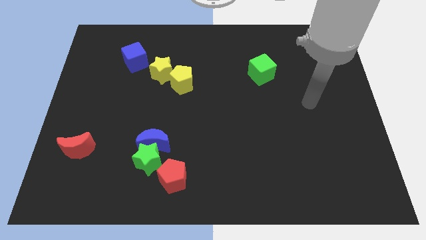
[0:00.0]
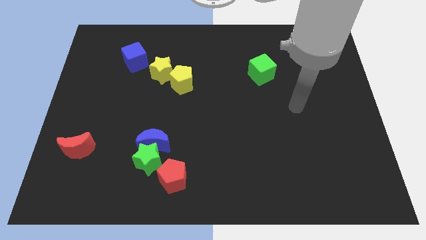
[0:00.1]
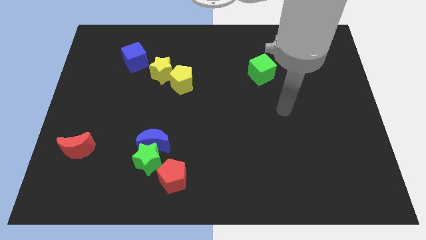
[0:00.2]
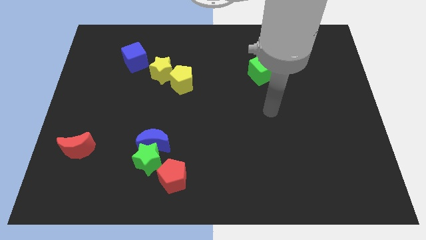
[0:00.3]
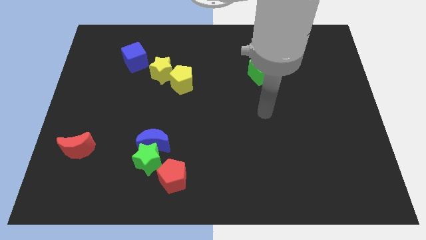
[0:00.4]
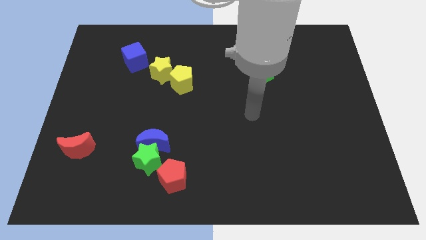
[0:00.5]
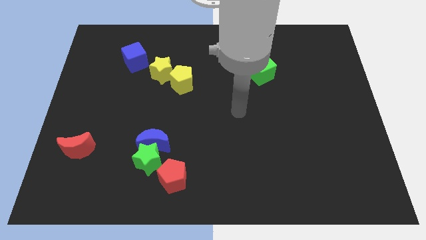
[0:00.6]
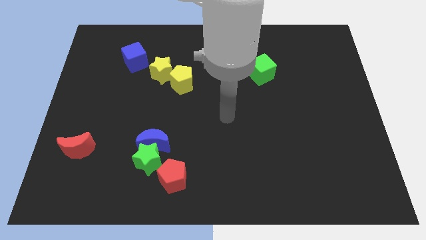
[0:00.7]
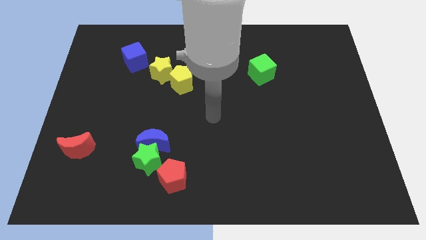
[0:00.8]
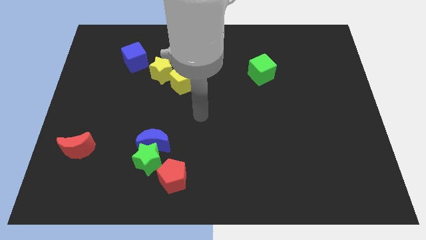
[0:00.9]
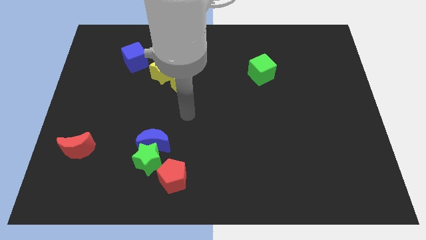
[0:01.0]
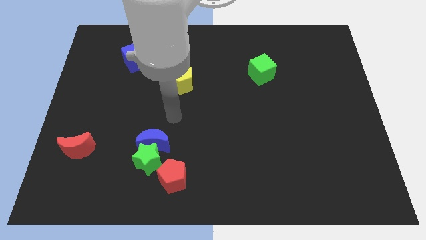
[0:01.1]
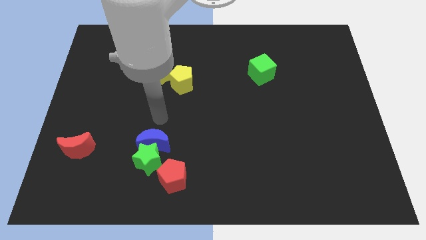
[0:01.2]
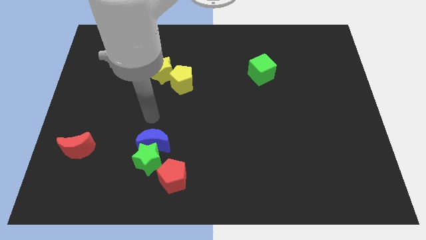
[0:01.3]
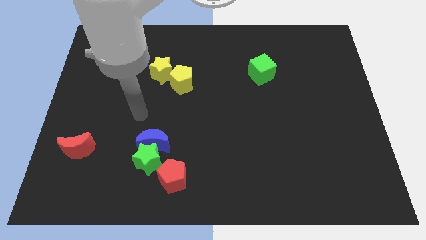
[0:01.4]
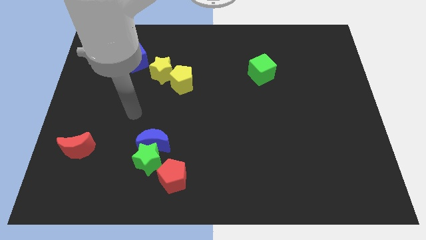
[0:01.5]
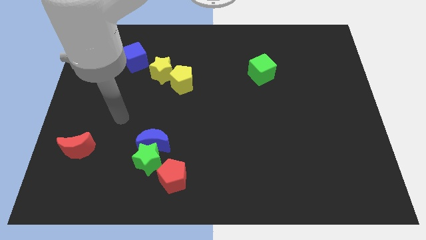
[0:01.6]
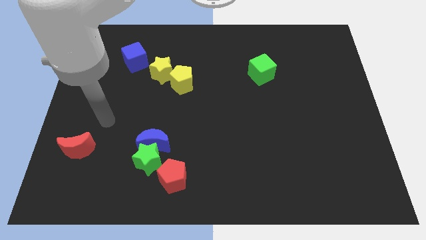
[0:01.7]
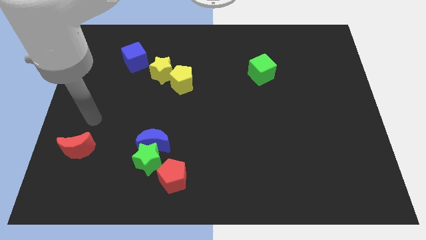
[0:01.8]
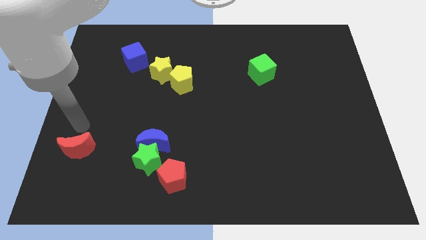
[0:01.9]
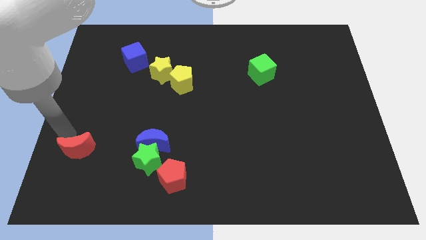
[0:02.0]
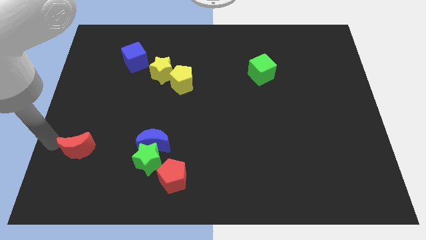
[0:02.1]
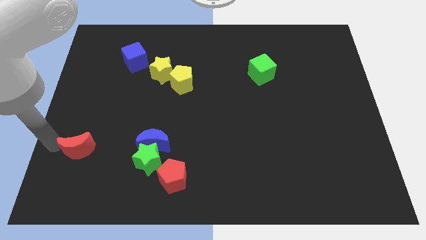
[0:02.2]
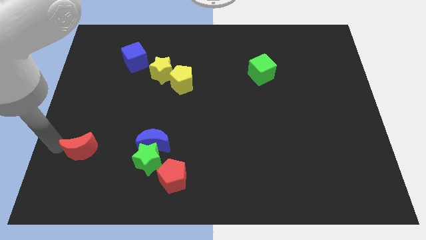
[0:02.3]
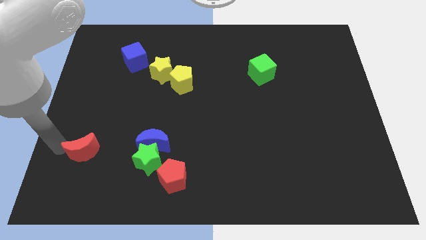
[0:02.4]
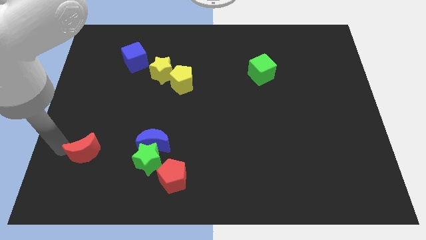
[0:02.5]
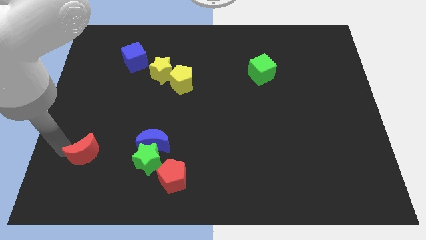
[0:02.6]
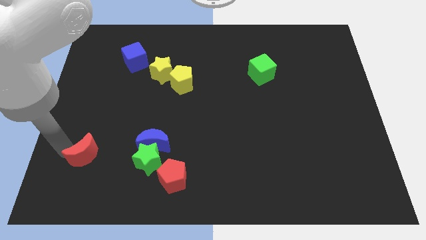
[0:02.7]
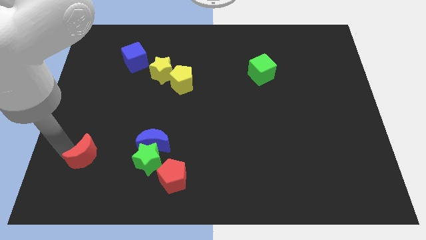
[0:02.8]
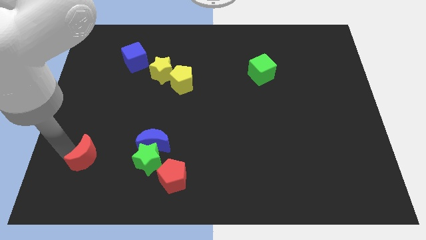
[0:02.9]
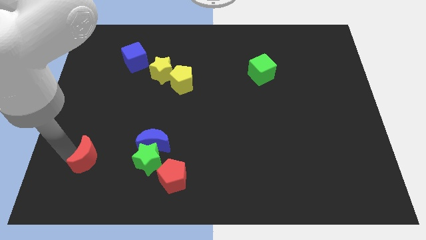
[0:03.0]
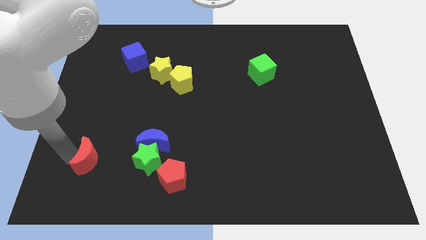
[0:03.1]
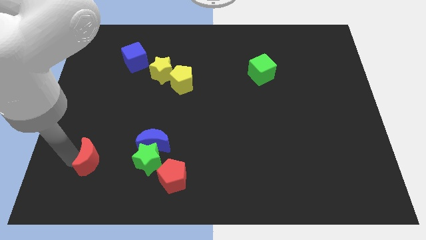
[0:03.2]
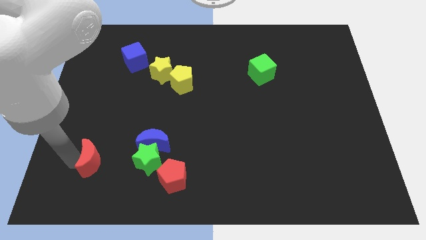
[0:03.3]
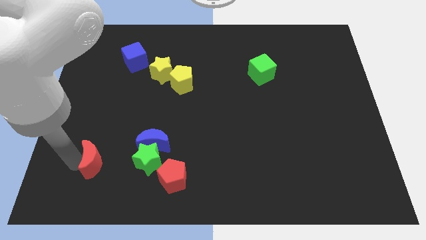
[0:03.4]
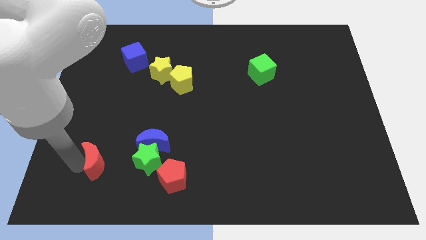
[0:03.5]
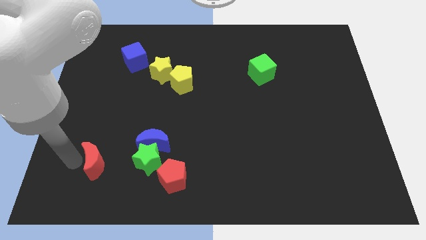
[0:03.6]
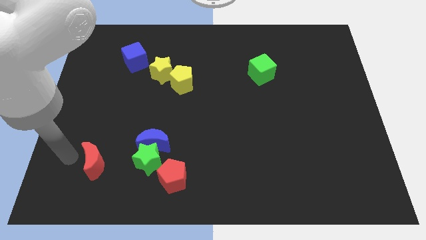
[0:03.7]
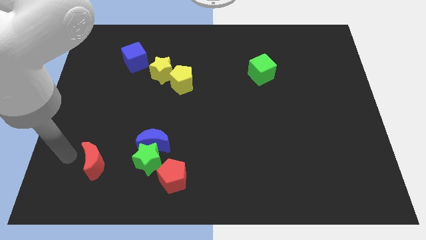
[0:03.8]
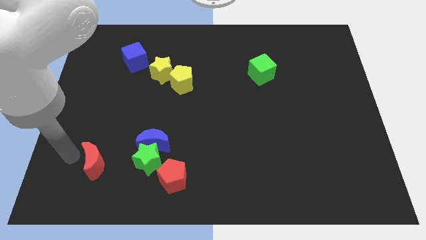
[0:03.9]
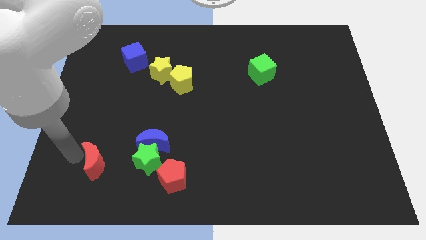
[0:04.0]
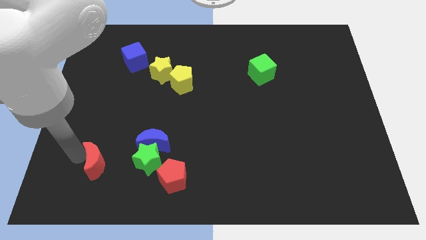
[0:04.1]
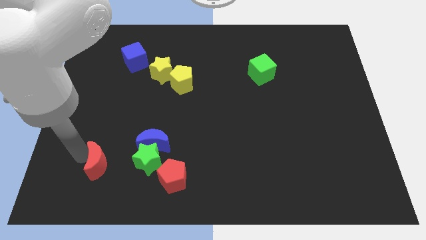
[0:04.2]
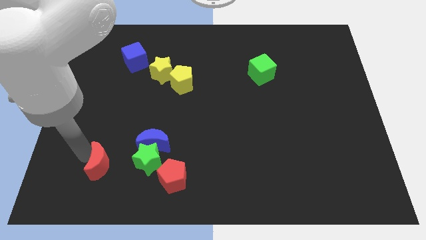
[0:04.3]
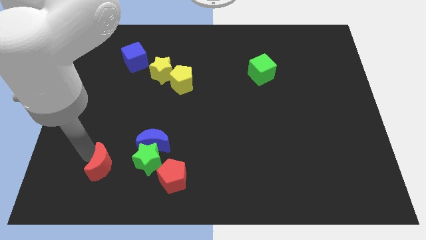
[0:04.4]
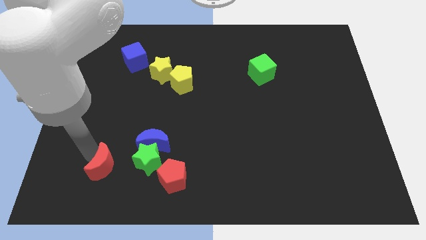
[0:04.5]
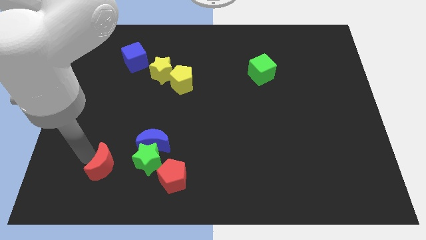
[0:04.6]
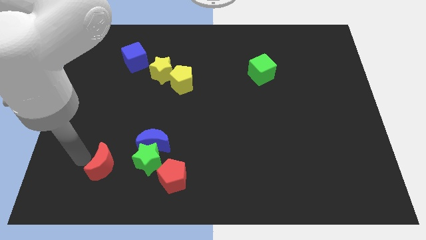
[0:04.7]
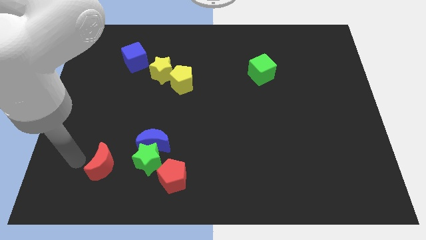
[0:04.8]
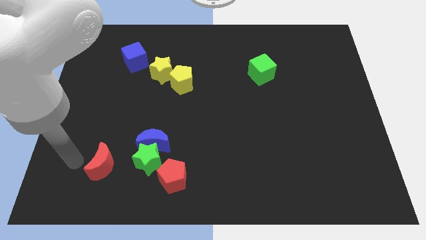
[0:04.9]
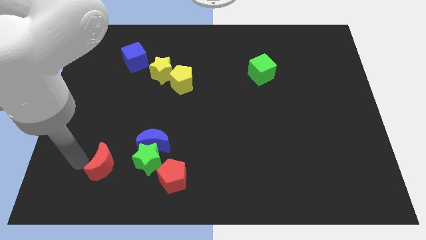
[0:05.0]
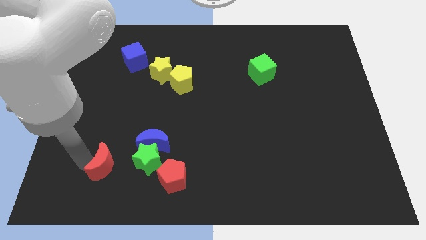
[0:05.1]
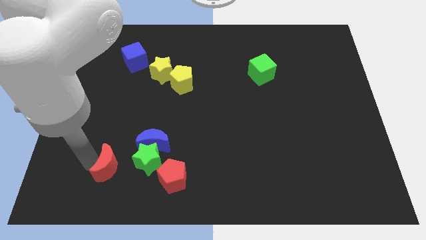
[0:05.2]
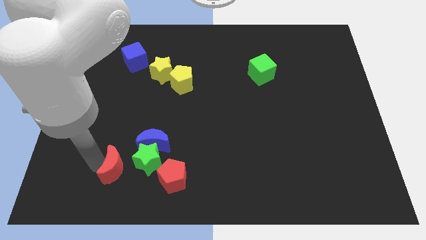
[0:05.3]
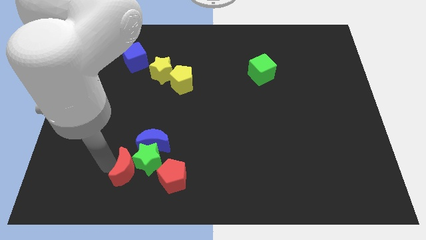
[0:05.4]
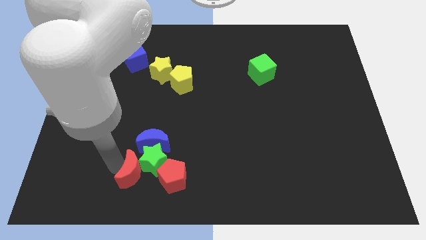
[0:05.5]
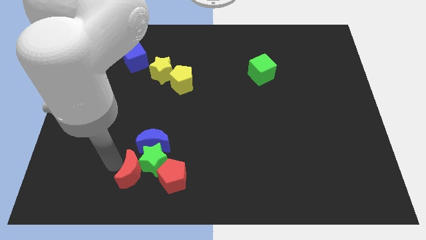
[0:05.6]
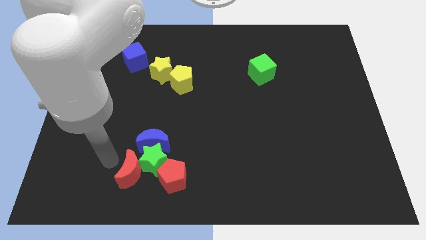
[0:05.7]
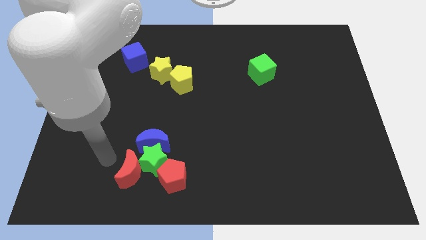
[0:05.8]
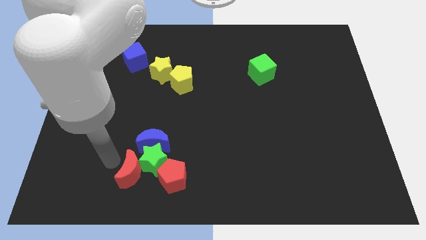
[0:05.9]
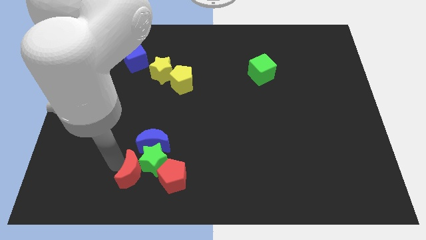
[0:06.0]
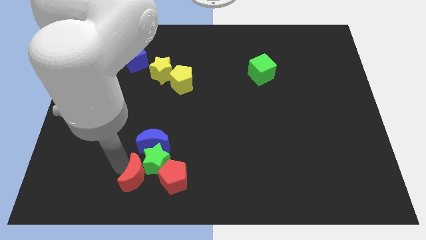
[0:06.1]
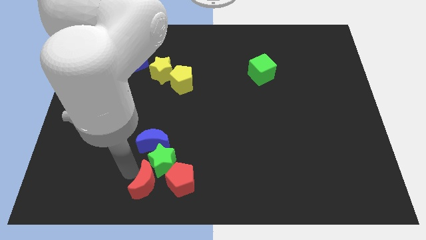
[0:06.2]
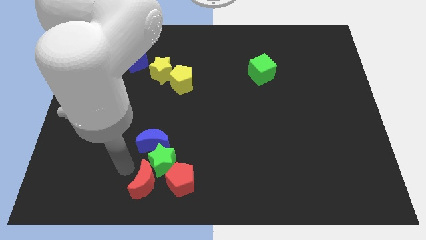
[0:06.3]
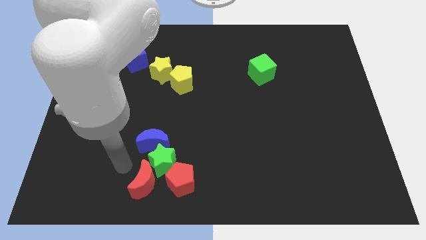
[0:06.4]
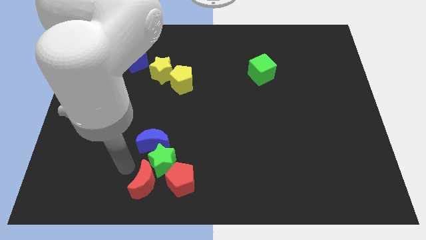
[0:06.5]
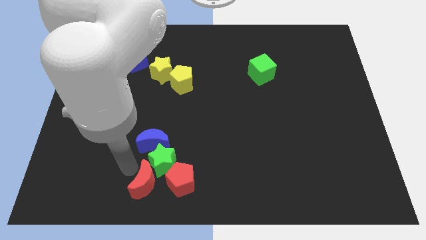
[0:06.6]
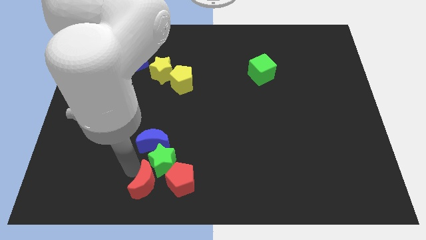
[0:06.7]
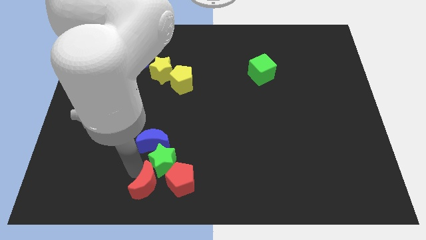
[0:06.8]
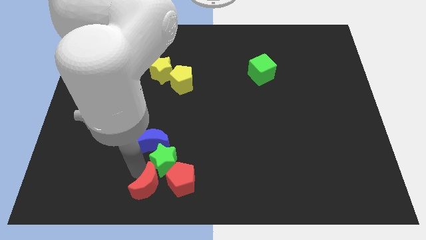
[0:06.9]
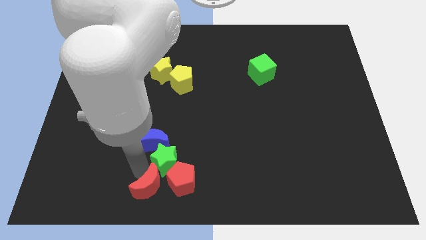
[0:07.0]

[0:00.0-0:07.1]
slide the red moon to the bottom
